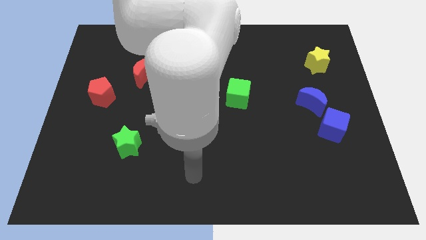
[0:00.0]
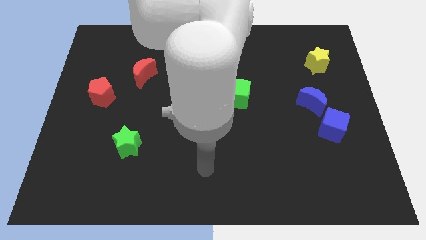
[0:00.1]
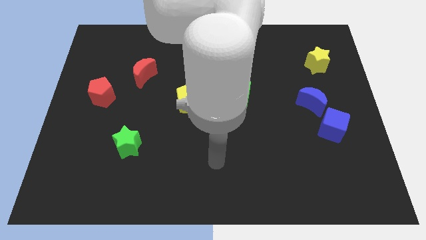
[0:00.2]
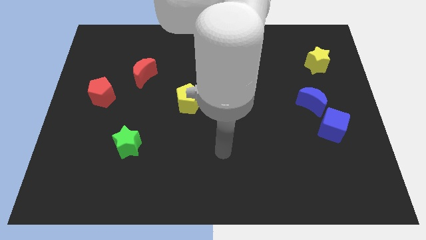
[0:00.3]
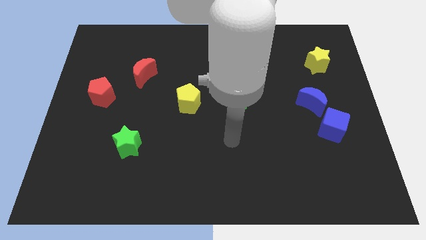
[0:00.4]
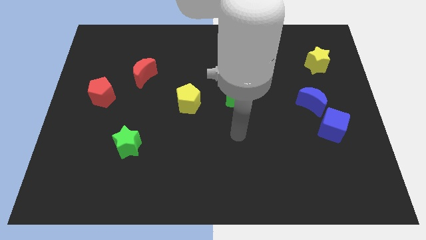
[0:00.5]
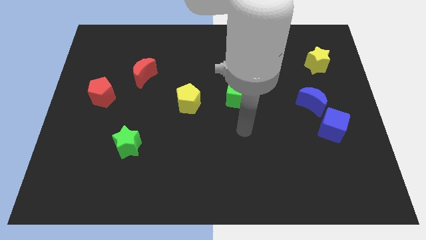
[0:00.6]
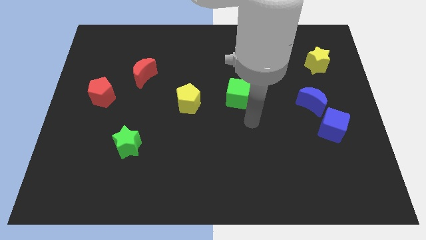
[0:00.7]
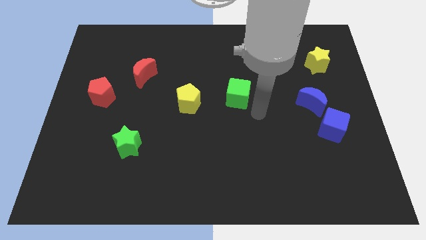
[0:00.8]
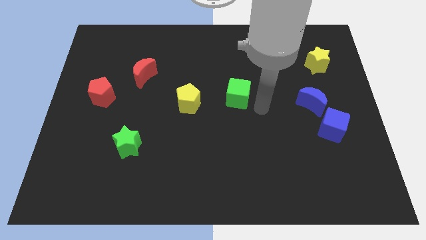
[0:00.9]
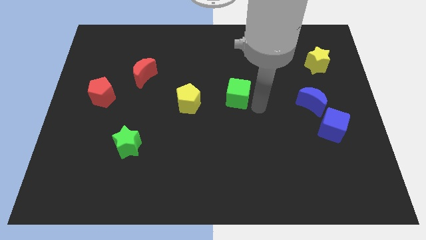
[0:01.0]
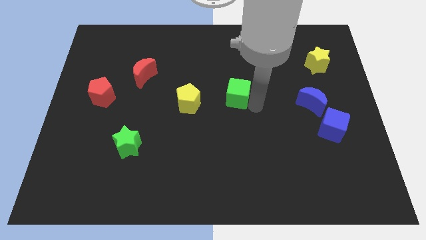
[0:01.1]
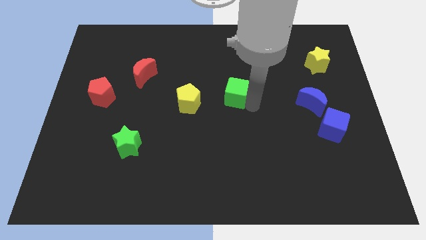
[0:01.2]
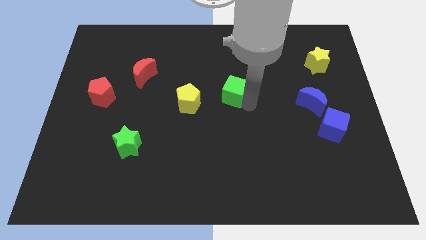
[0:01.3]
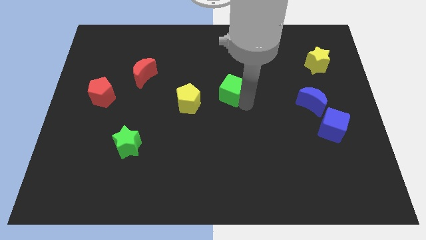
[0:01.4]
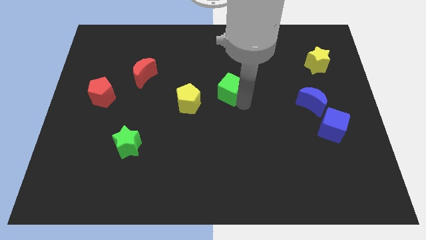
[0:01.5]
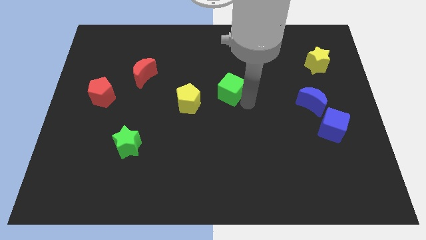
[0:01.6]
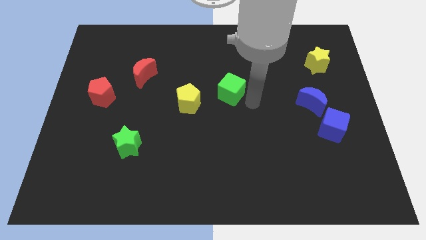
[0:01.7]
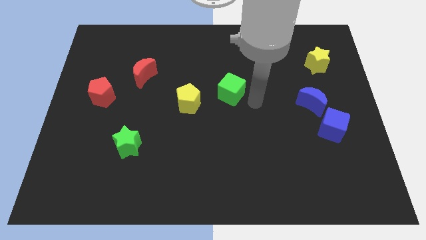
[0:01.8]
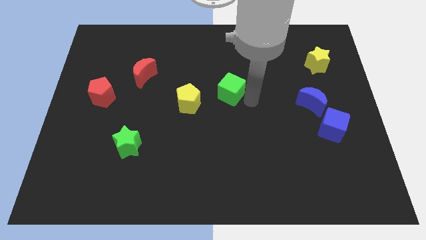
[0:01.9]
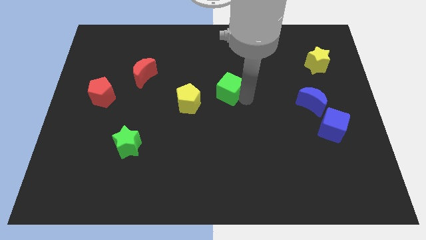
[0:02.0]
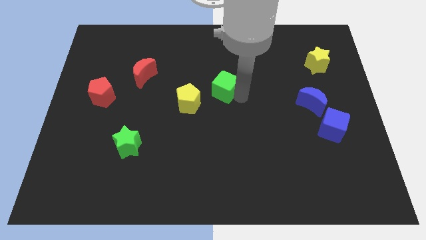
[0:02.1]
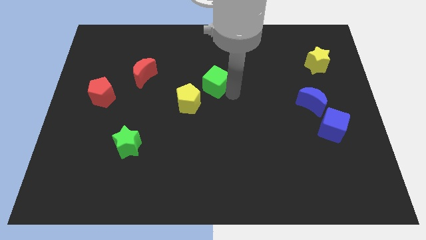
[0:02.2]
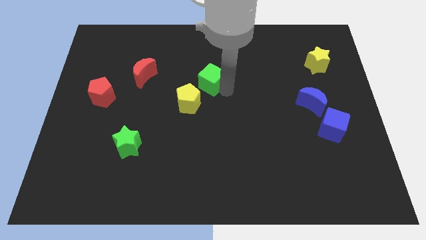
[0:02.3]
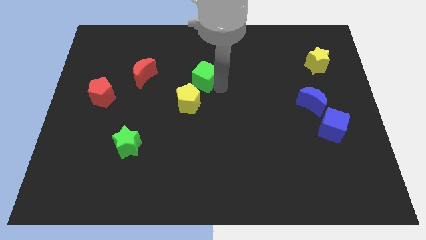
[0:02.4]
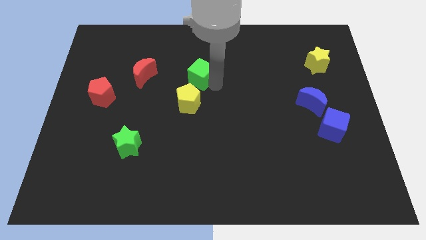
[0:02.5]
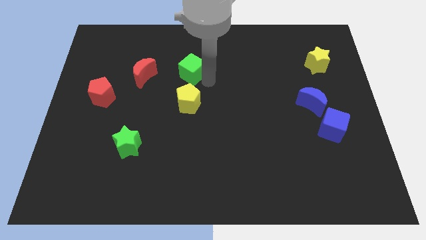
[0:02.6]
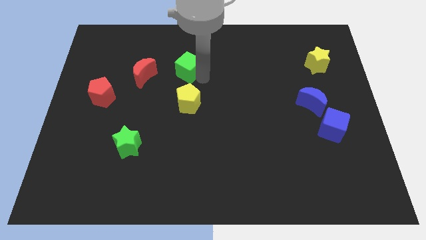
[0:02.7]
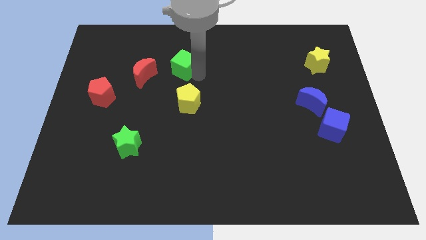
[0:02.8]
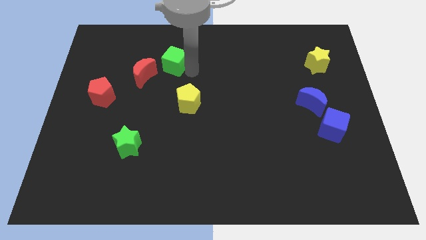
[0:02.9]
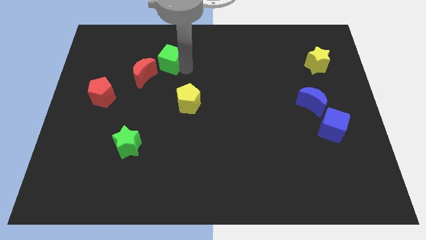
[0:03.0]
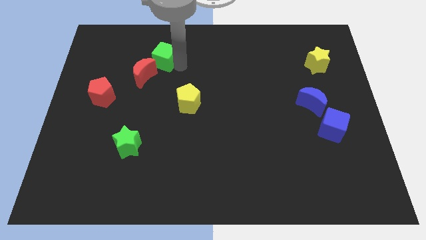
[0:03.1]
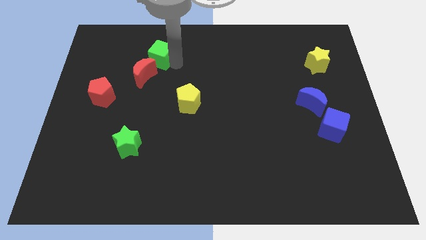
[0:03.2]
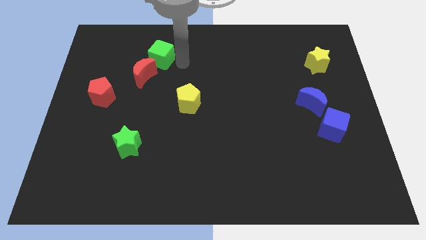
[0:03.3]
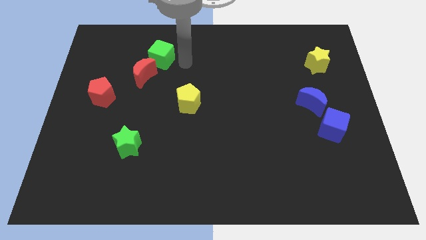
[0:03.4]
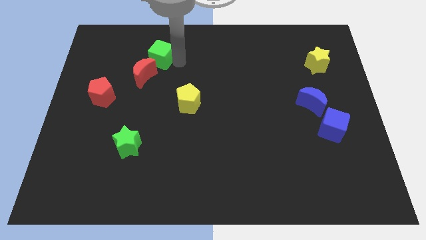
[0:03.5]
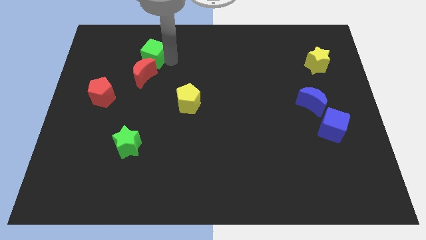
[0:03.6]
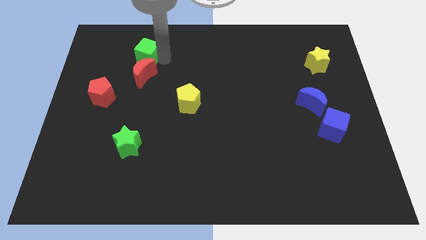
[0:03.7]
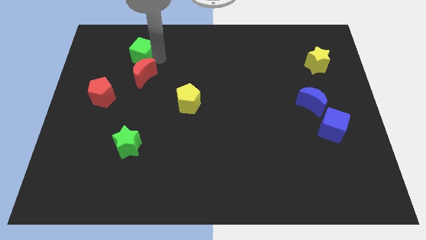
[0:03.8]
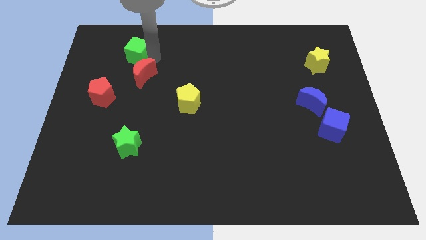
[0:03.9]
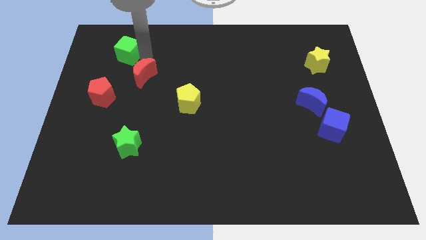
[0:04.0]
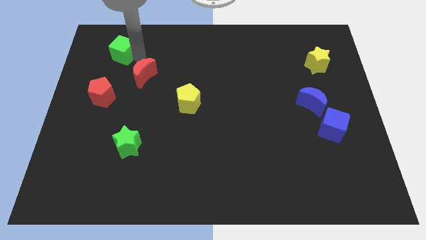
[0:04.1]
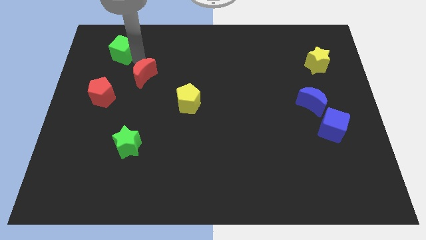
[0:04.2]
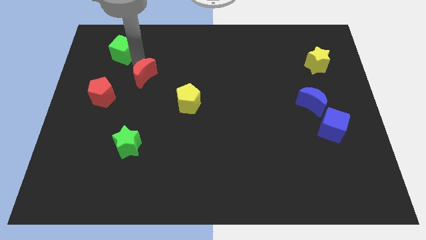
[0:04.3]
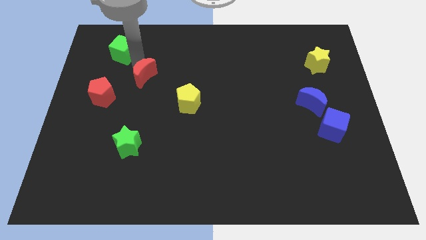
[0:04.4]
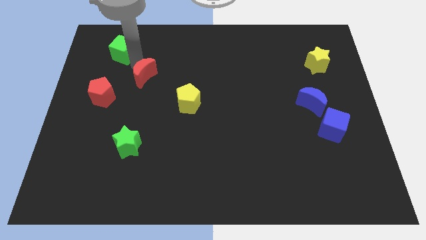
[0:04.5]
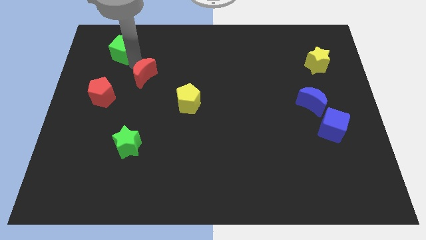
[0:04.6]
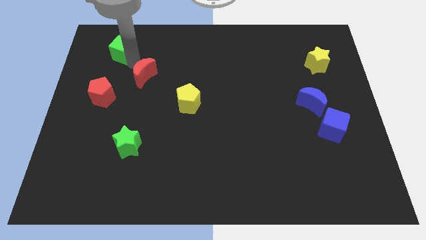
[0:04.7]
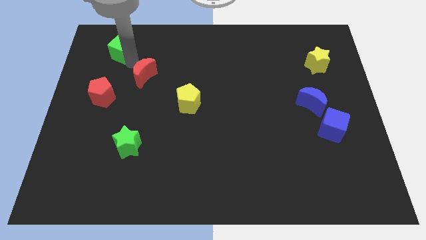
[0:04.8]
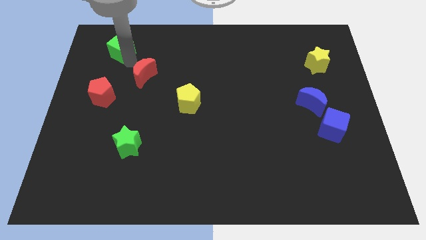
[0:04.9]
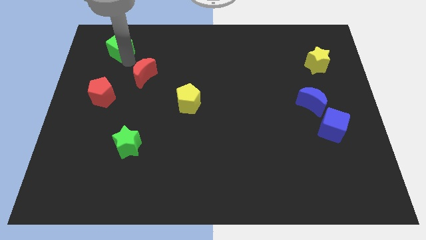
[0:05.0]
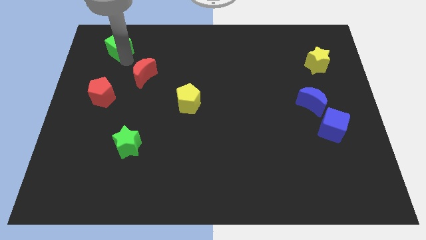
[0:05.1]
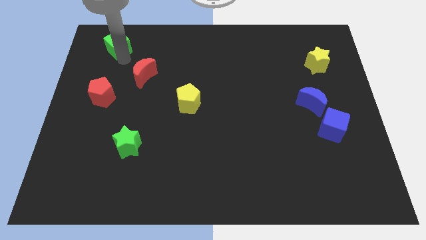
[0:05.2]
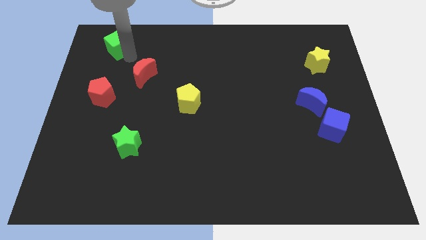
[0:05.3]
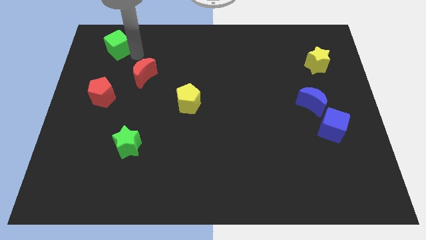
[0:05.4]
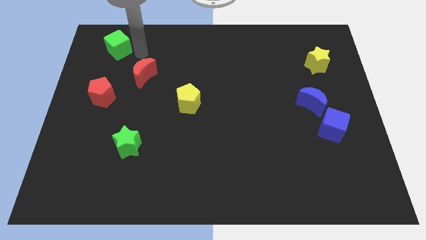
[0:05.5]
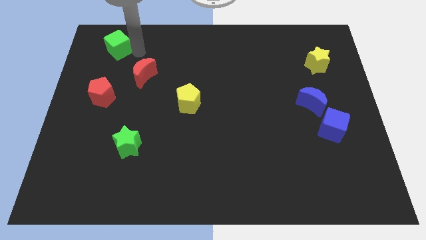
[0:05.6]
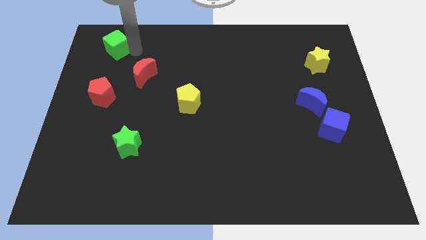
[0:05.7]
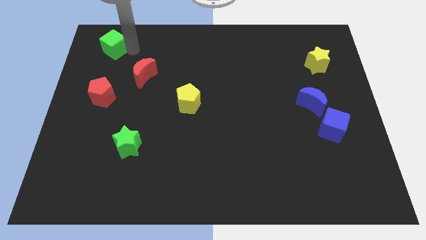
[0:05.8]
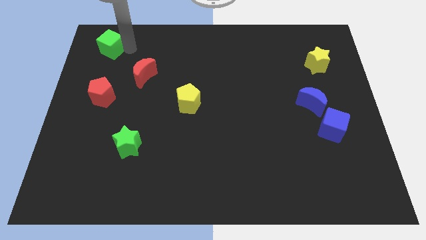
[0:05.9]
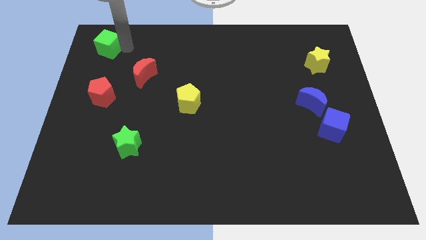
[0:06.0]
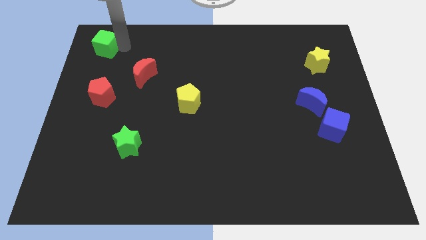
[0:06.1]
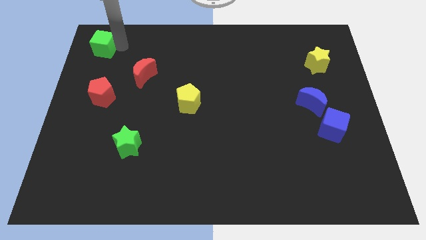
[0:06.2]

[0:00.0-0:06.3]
put the green cube to the upper left corner
